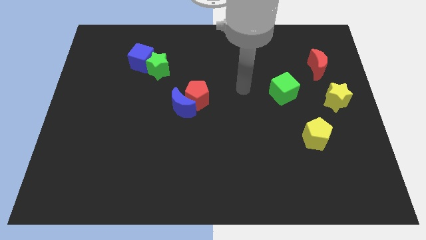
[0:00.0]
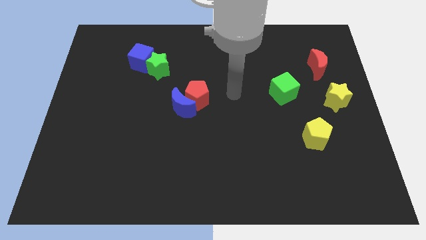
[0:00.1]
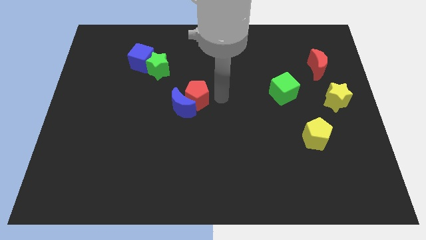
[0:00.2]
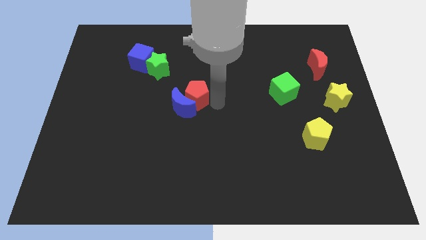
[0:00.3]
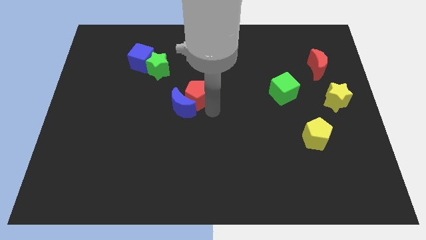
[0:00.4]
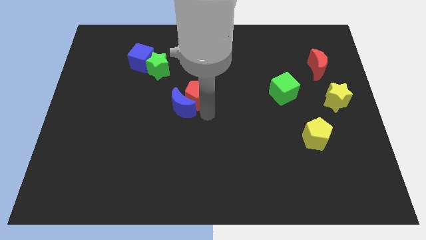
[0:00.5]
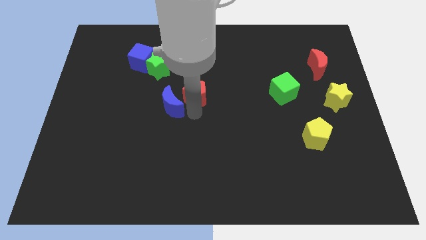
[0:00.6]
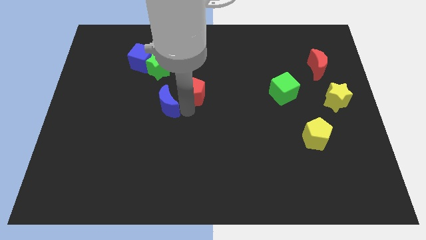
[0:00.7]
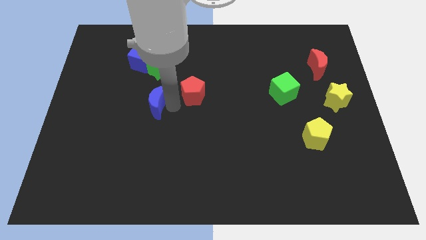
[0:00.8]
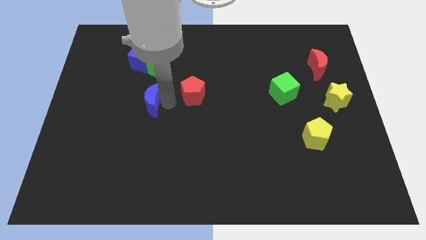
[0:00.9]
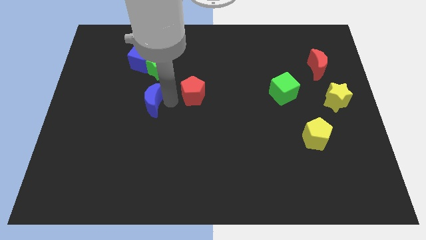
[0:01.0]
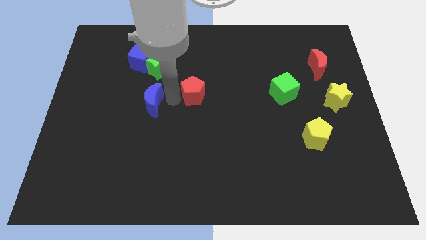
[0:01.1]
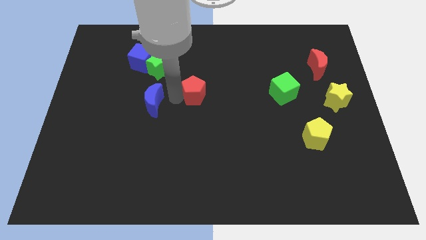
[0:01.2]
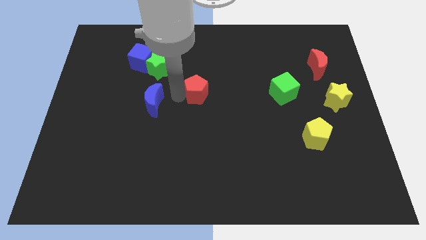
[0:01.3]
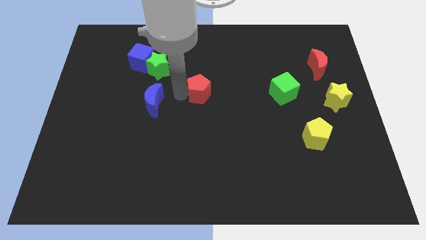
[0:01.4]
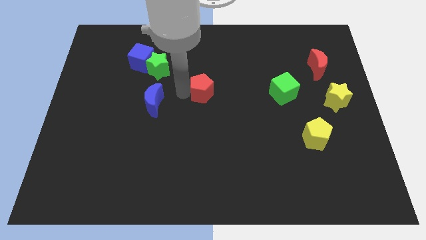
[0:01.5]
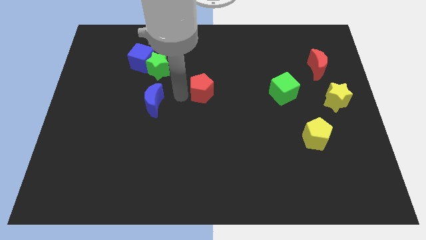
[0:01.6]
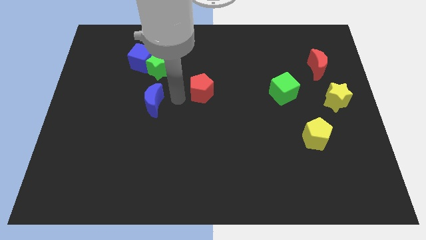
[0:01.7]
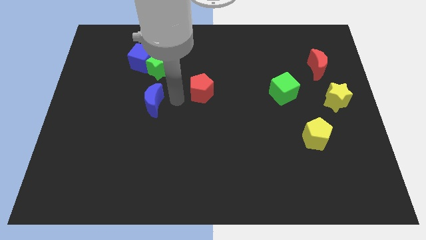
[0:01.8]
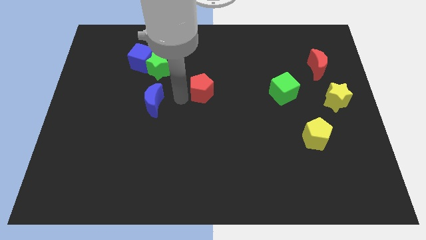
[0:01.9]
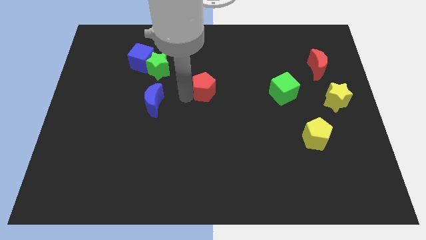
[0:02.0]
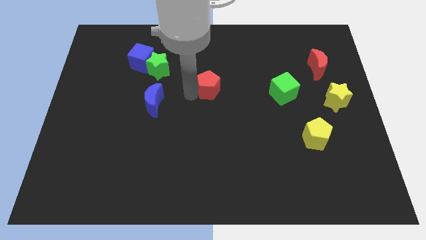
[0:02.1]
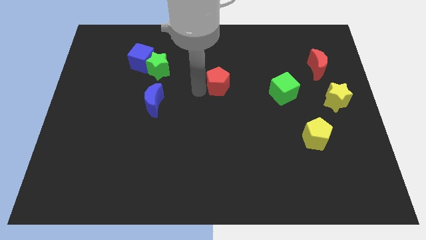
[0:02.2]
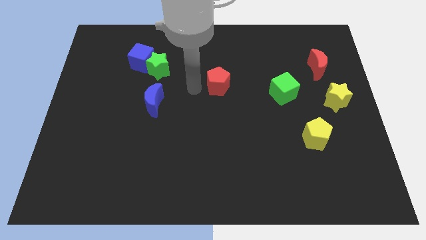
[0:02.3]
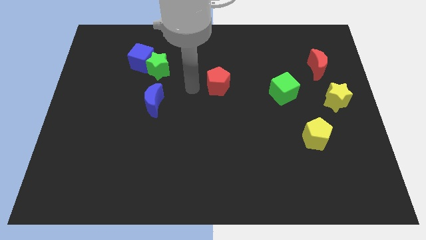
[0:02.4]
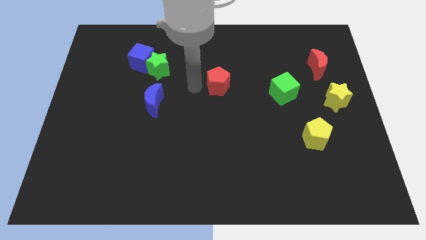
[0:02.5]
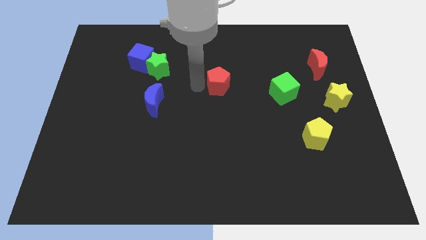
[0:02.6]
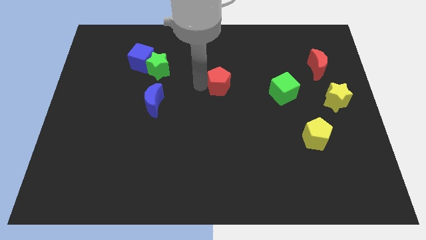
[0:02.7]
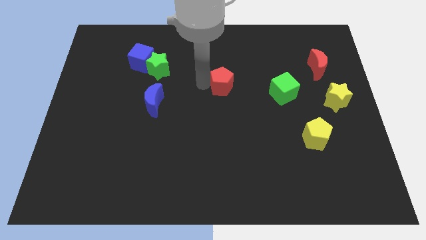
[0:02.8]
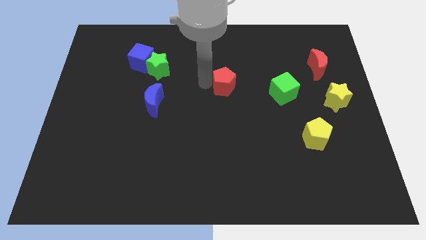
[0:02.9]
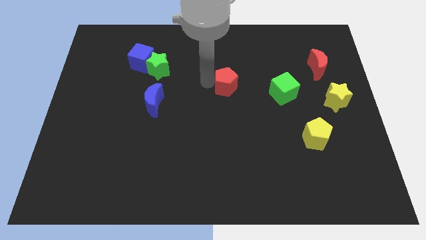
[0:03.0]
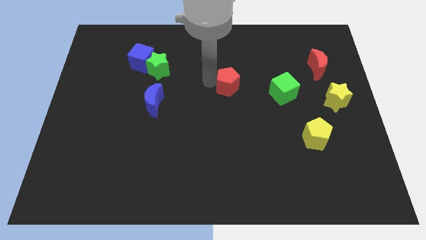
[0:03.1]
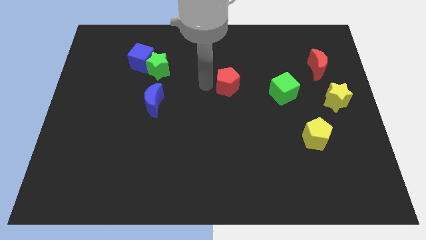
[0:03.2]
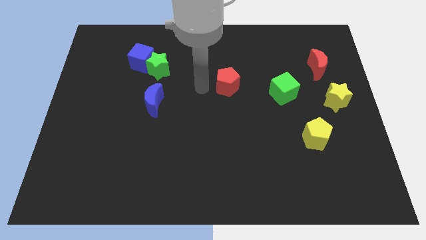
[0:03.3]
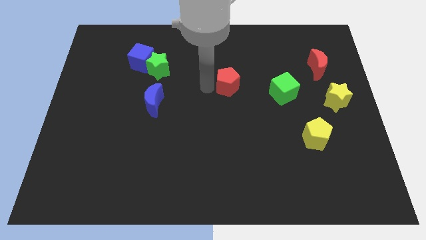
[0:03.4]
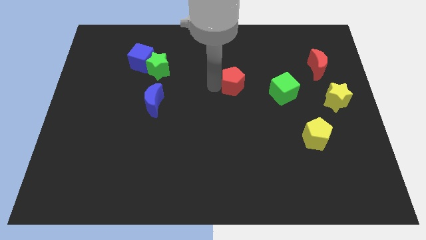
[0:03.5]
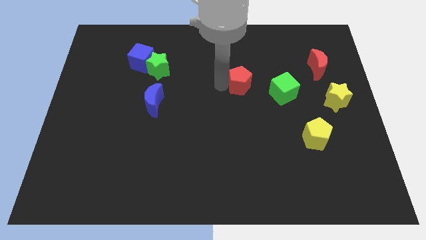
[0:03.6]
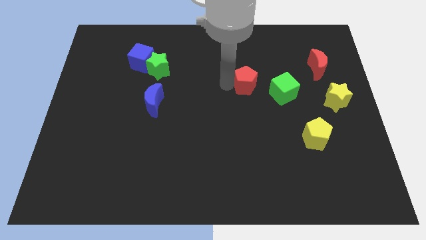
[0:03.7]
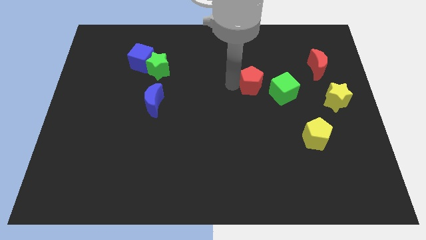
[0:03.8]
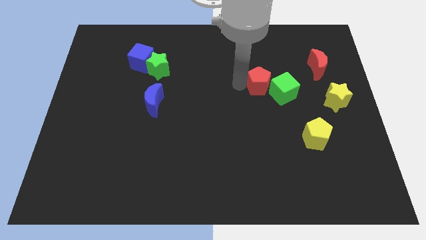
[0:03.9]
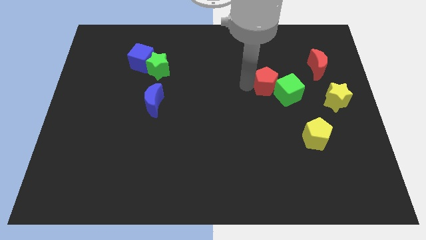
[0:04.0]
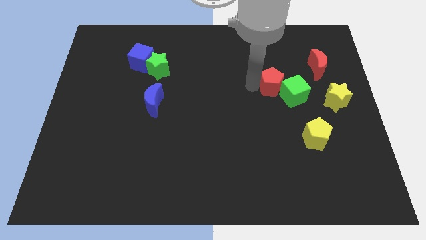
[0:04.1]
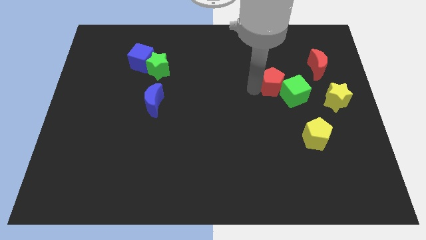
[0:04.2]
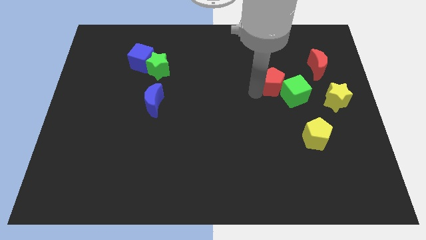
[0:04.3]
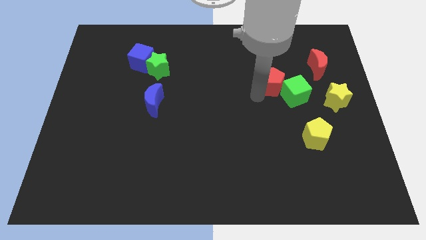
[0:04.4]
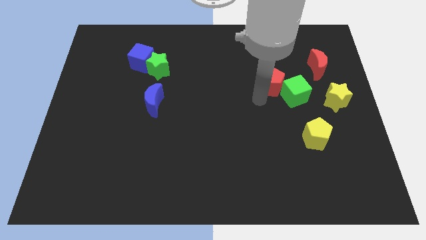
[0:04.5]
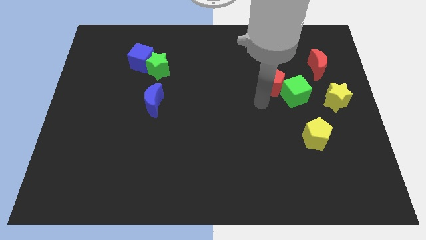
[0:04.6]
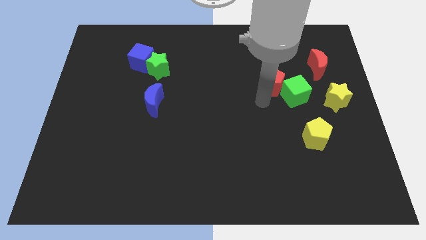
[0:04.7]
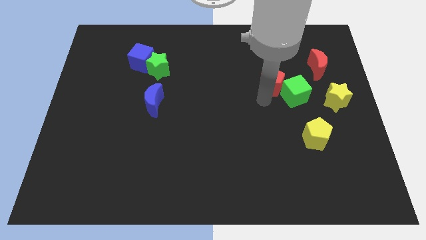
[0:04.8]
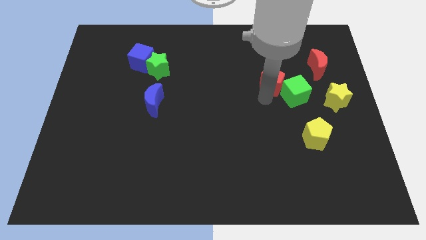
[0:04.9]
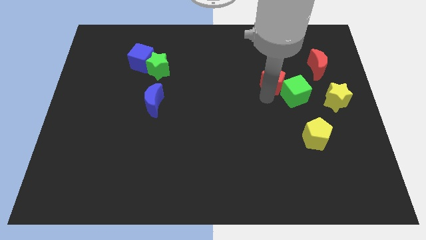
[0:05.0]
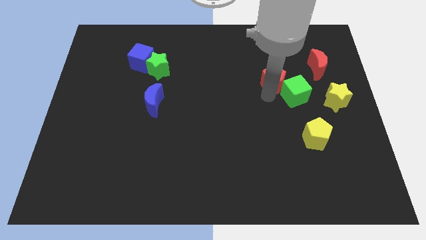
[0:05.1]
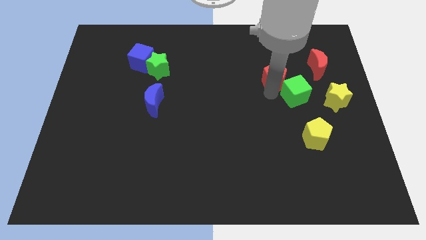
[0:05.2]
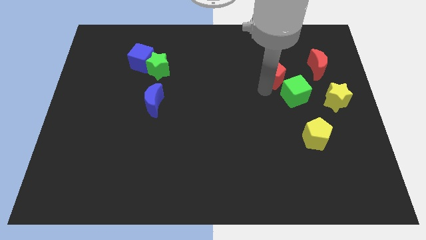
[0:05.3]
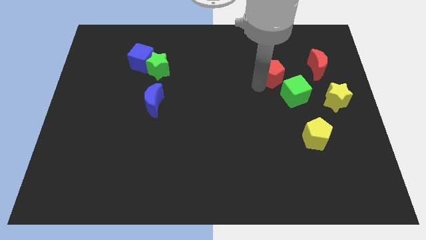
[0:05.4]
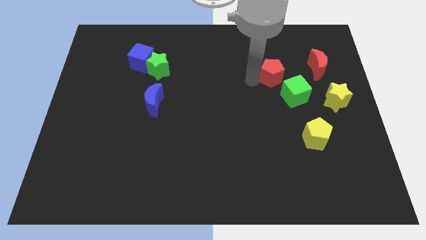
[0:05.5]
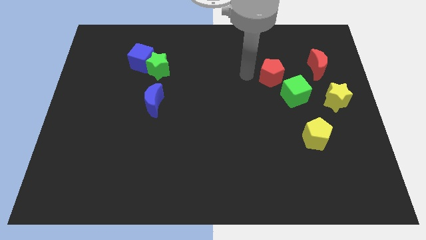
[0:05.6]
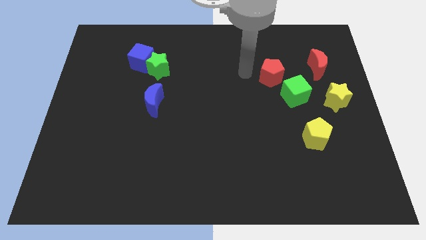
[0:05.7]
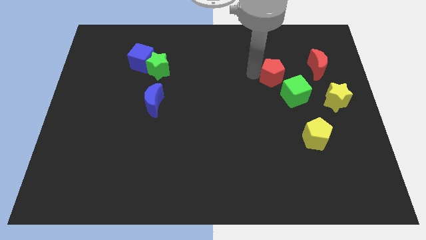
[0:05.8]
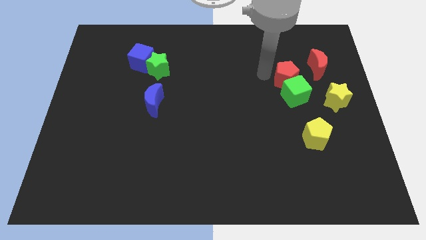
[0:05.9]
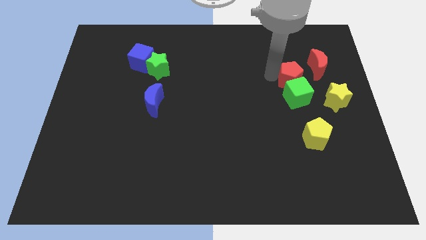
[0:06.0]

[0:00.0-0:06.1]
slide the red pentagon to the top right side of the green cube

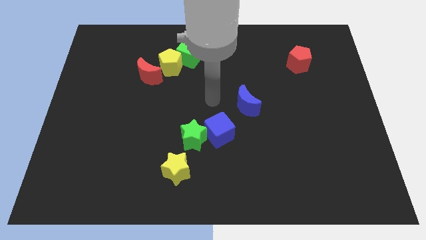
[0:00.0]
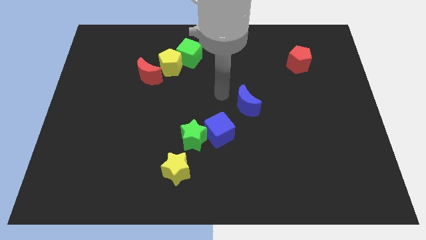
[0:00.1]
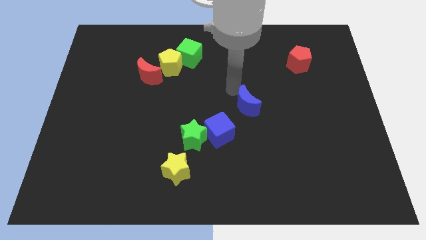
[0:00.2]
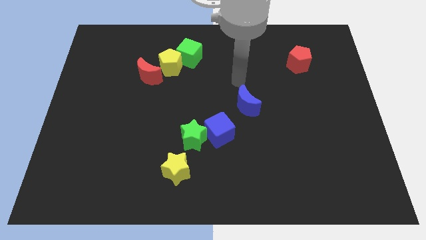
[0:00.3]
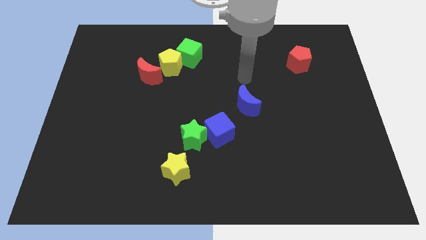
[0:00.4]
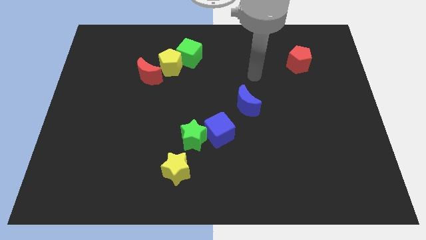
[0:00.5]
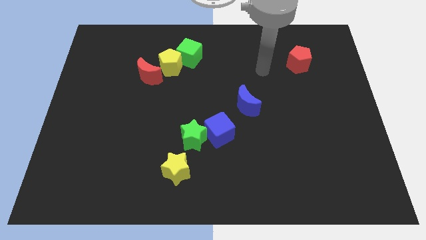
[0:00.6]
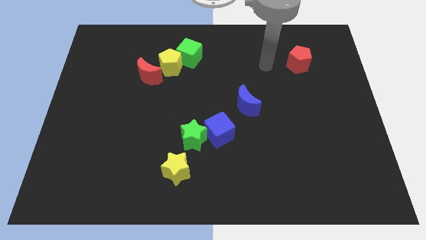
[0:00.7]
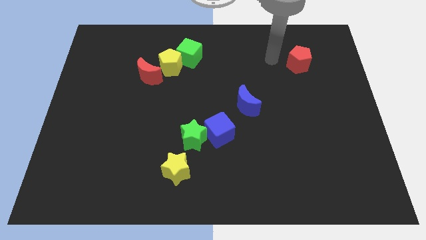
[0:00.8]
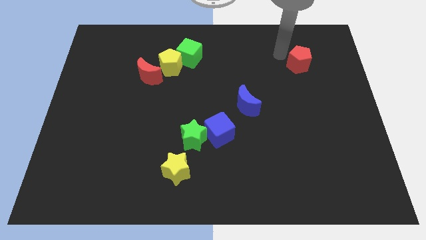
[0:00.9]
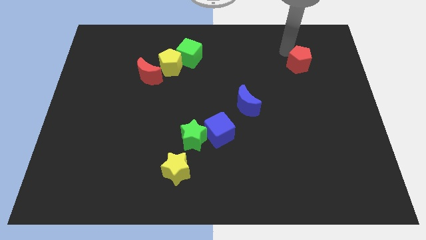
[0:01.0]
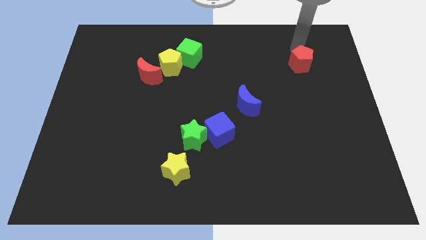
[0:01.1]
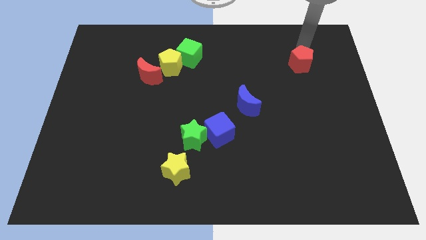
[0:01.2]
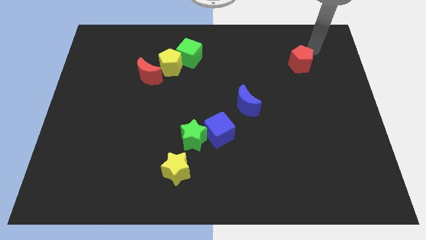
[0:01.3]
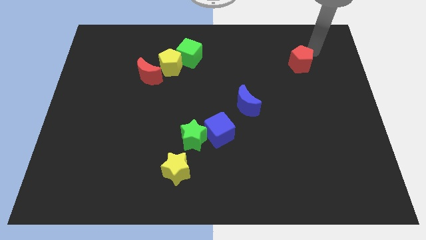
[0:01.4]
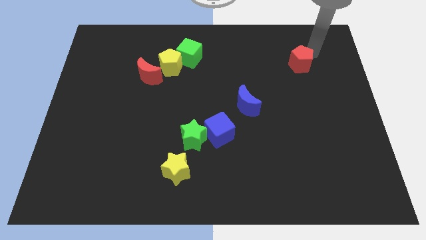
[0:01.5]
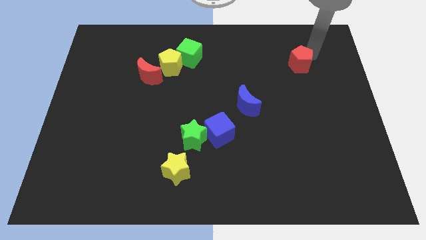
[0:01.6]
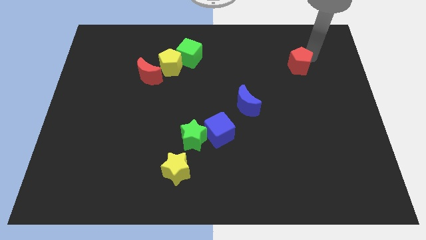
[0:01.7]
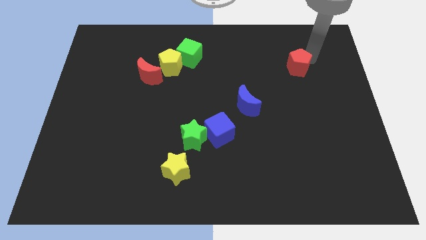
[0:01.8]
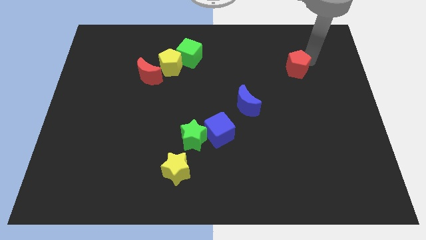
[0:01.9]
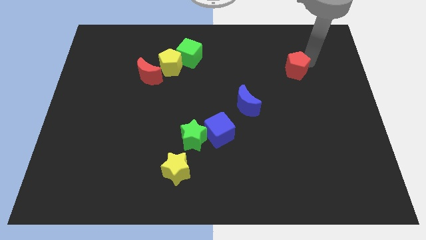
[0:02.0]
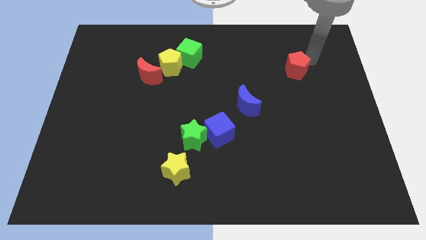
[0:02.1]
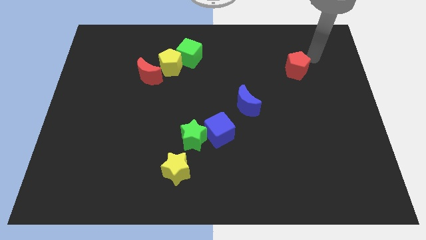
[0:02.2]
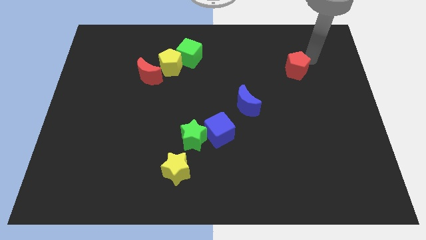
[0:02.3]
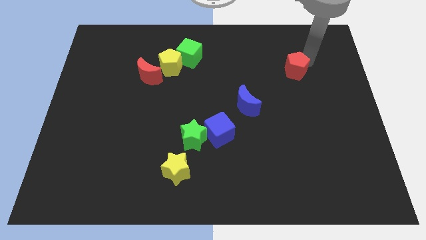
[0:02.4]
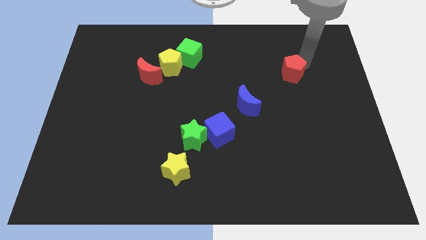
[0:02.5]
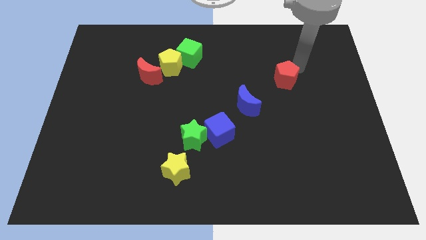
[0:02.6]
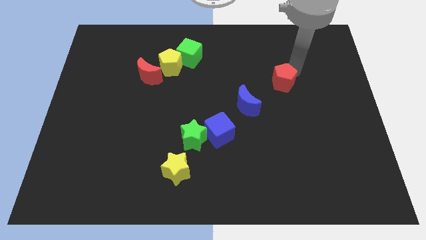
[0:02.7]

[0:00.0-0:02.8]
slide the red pentagon to the top right side of the blue moon
